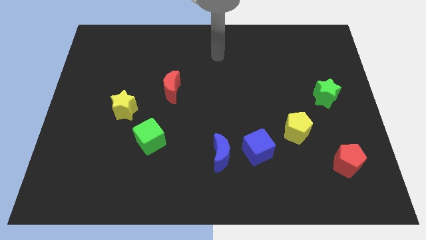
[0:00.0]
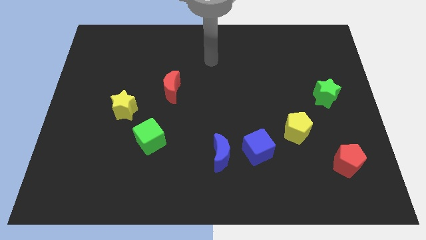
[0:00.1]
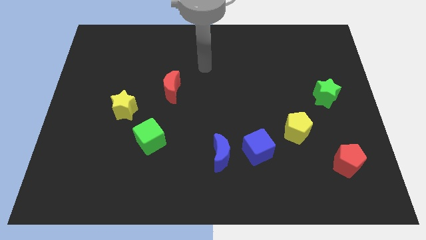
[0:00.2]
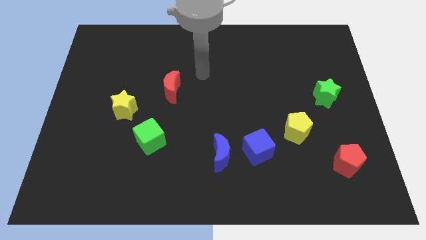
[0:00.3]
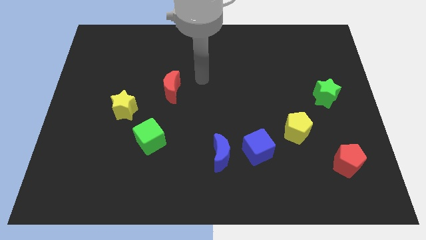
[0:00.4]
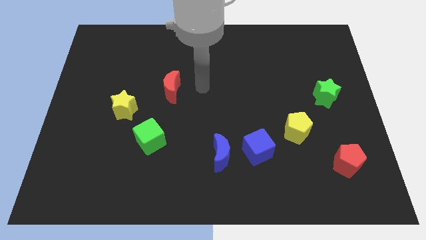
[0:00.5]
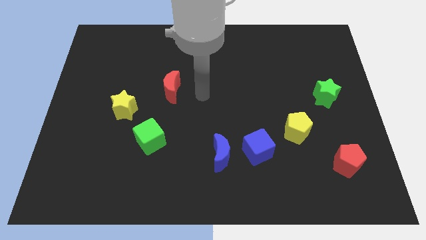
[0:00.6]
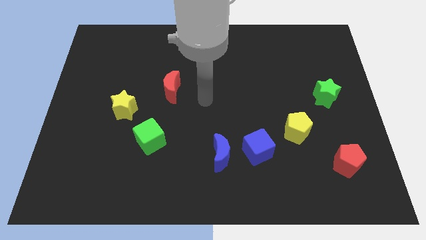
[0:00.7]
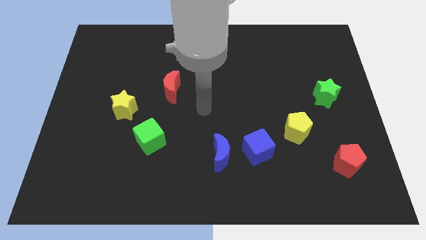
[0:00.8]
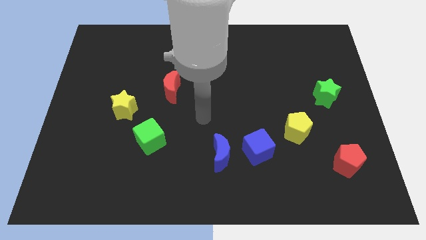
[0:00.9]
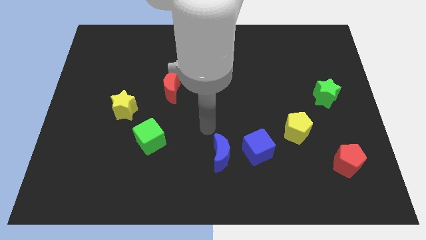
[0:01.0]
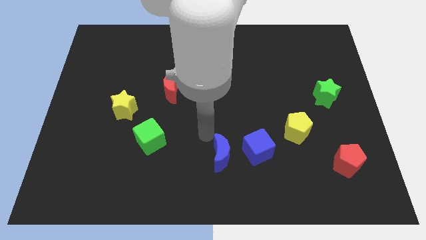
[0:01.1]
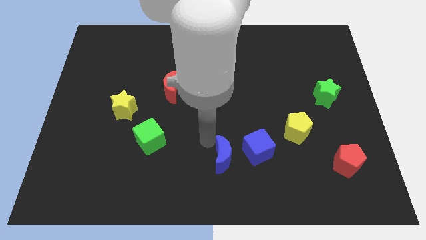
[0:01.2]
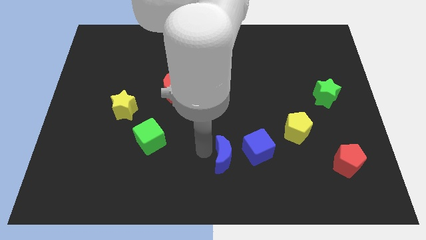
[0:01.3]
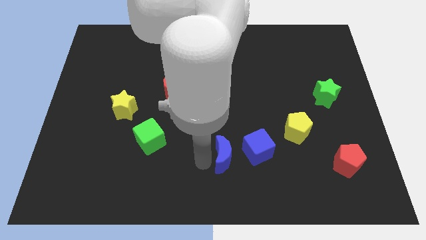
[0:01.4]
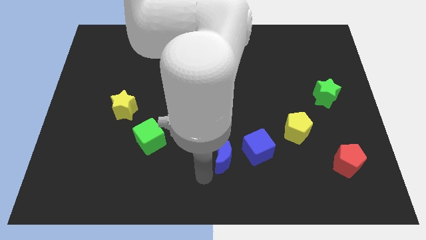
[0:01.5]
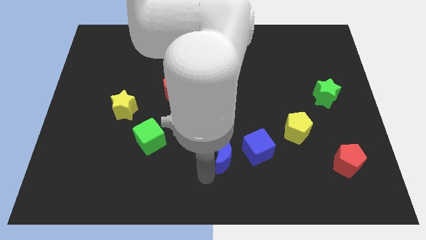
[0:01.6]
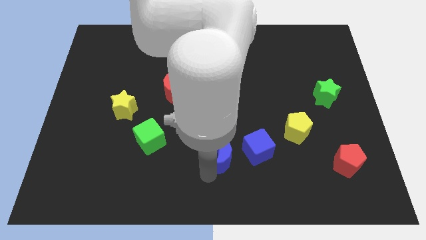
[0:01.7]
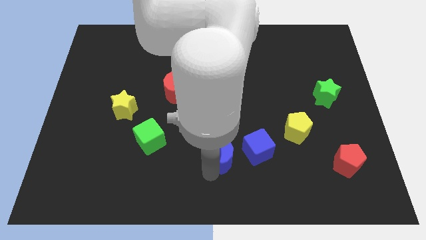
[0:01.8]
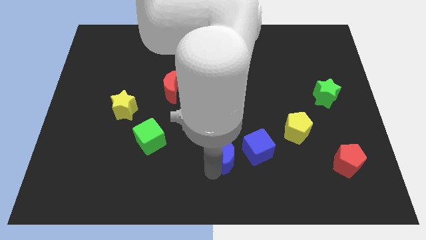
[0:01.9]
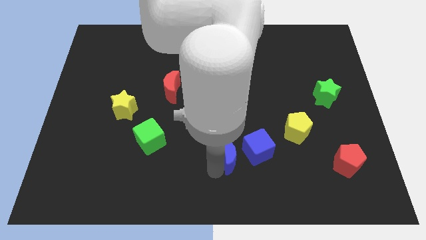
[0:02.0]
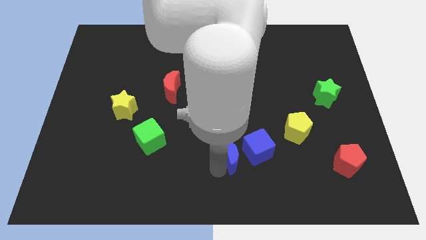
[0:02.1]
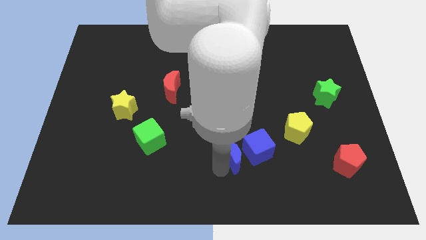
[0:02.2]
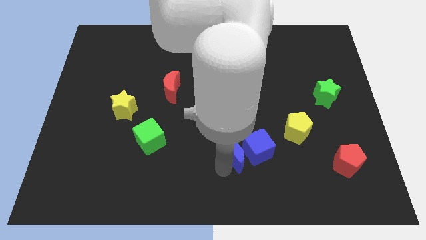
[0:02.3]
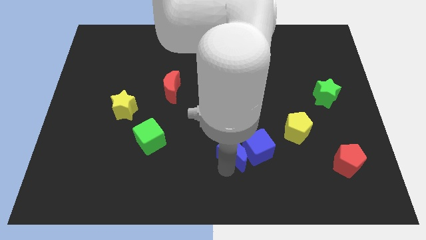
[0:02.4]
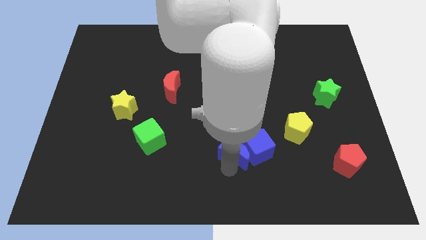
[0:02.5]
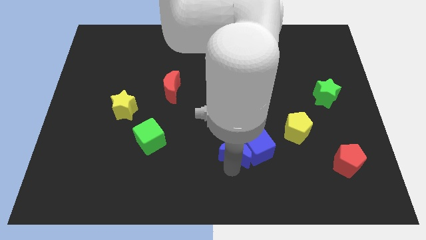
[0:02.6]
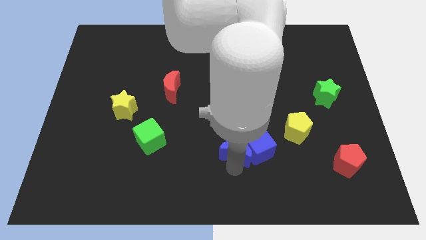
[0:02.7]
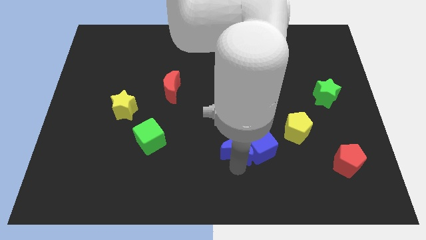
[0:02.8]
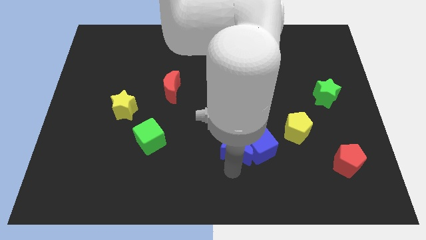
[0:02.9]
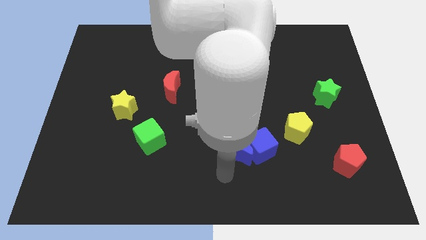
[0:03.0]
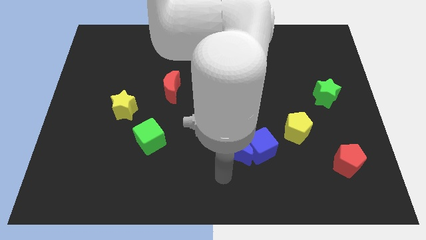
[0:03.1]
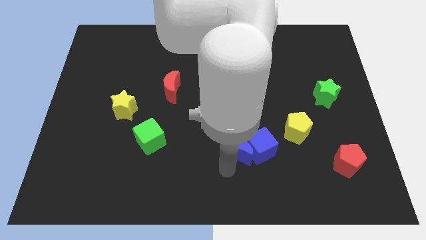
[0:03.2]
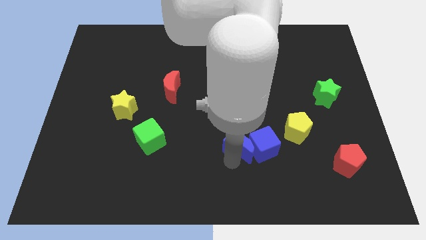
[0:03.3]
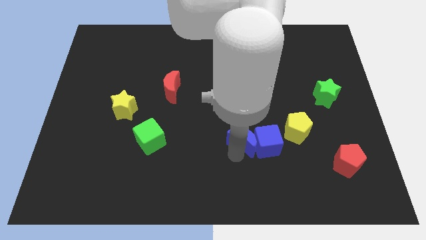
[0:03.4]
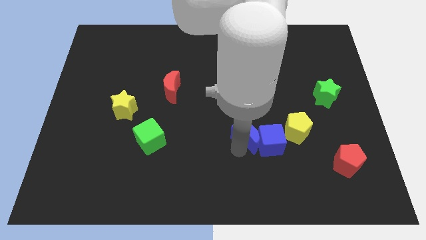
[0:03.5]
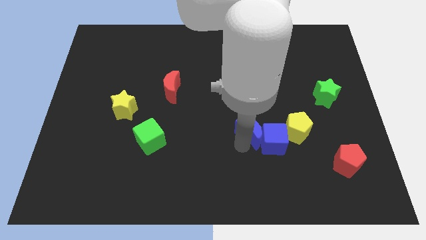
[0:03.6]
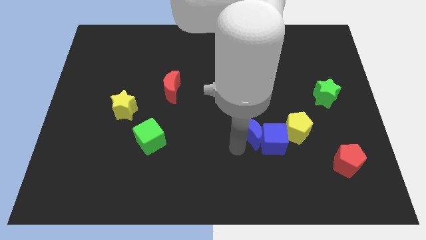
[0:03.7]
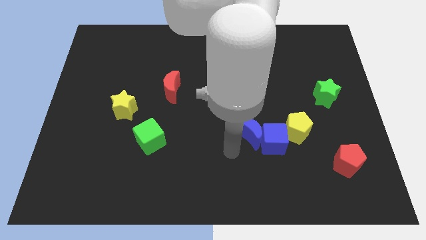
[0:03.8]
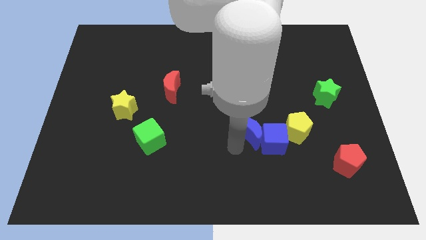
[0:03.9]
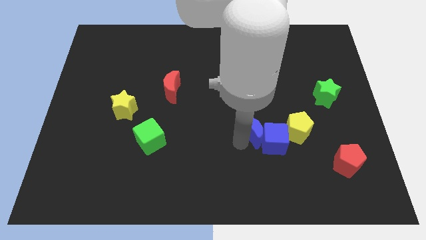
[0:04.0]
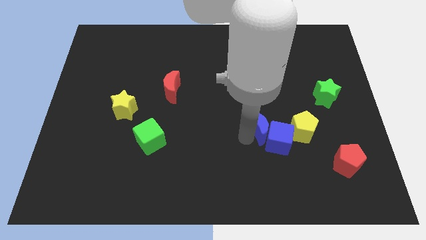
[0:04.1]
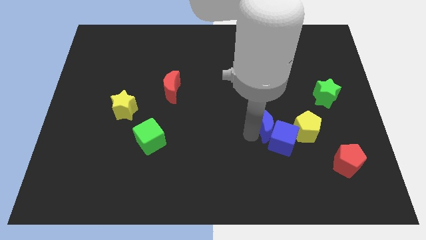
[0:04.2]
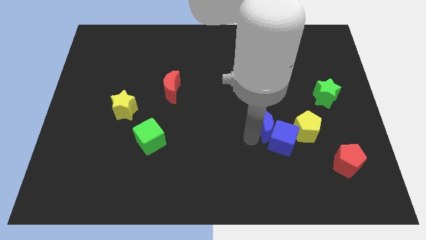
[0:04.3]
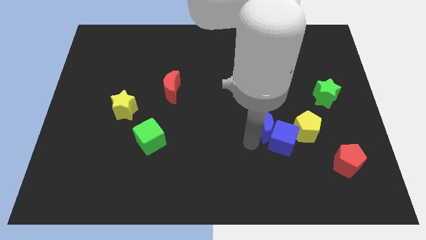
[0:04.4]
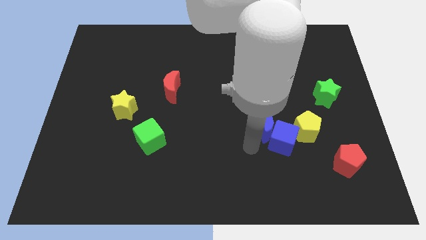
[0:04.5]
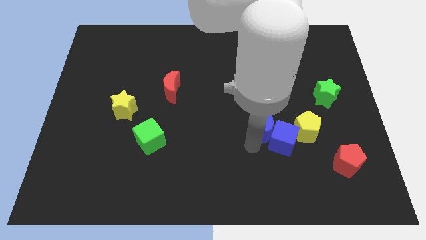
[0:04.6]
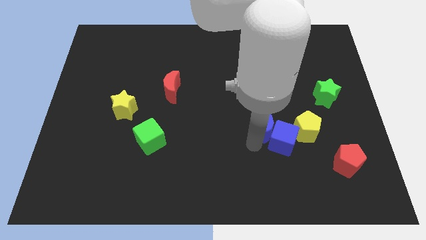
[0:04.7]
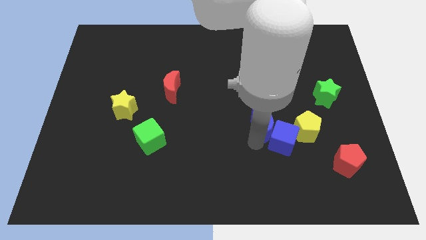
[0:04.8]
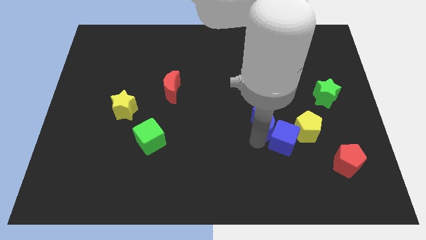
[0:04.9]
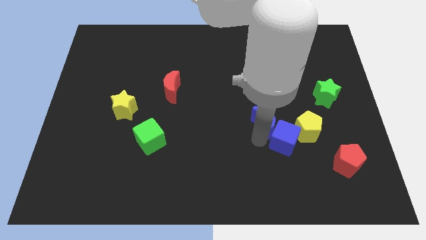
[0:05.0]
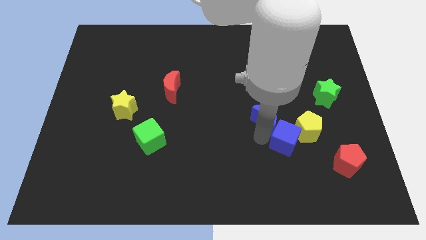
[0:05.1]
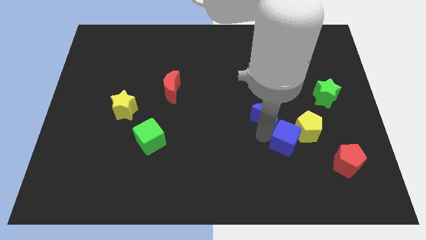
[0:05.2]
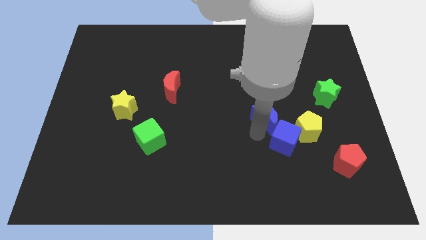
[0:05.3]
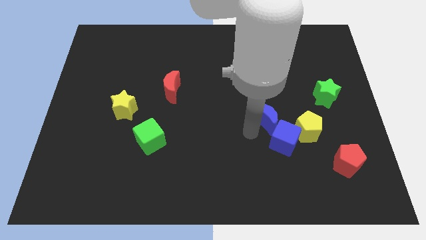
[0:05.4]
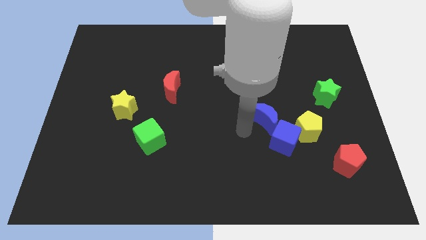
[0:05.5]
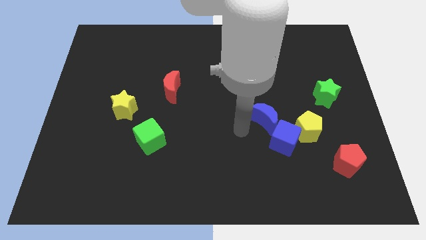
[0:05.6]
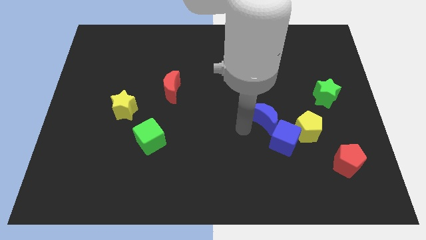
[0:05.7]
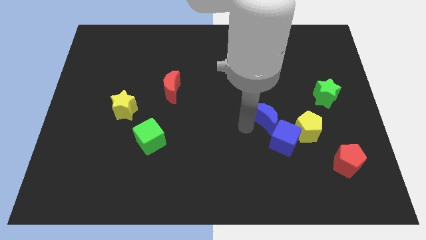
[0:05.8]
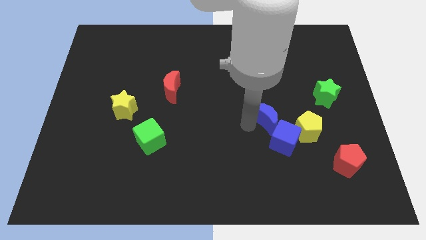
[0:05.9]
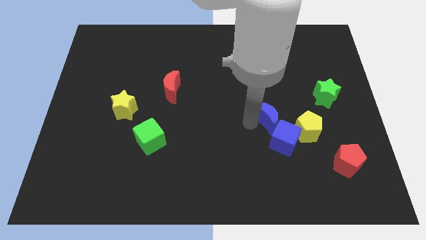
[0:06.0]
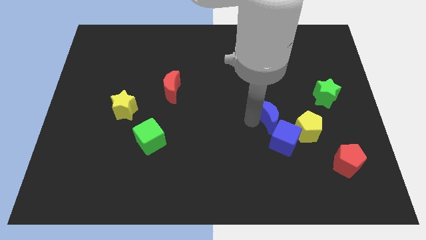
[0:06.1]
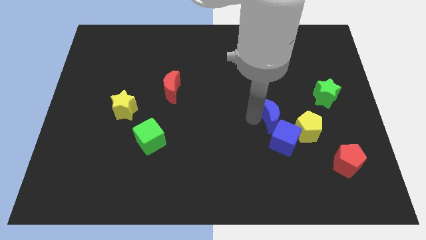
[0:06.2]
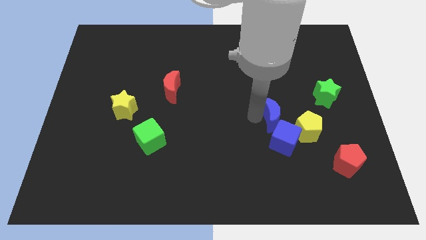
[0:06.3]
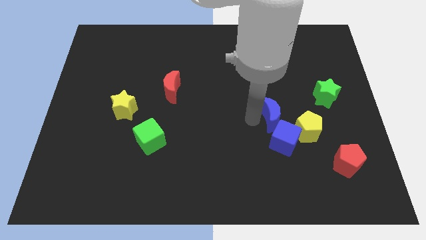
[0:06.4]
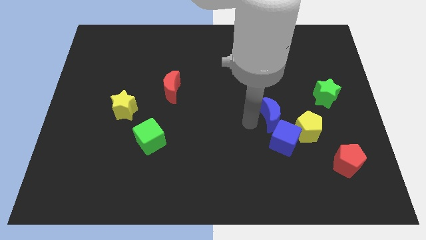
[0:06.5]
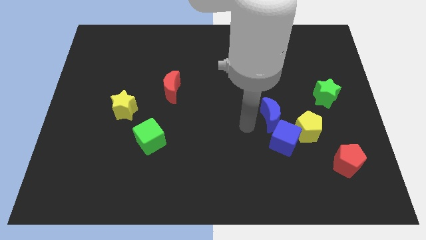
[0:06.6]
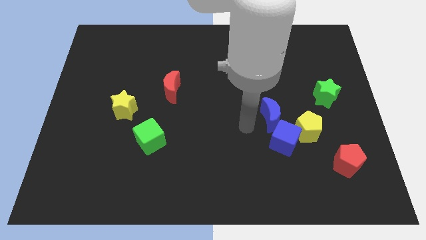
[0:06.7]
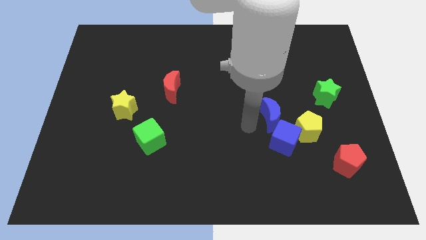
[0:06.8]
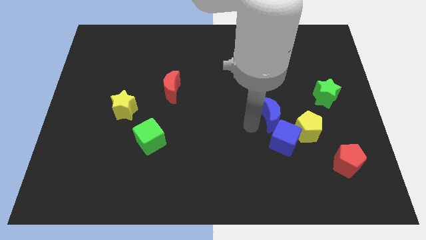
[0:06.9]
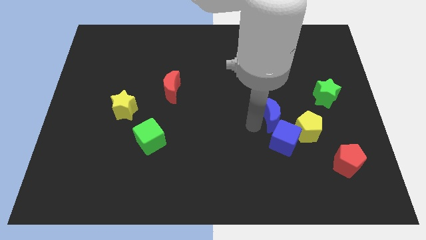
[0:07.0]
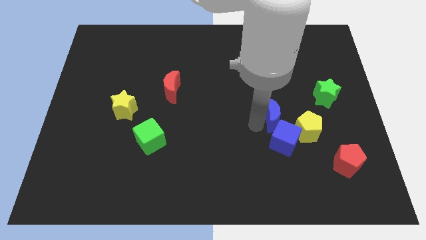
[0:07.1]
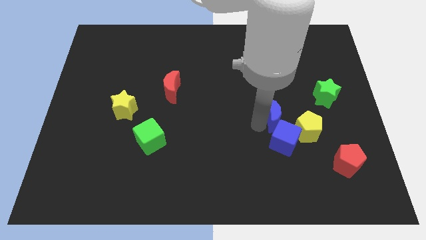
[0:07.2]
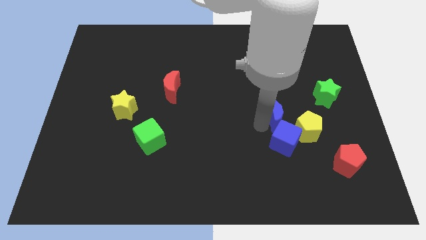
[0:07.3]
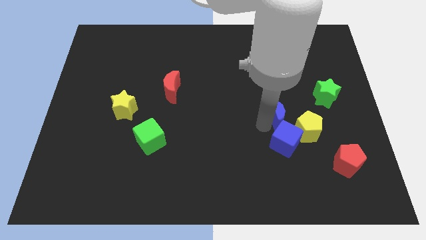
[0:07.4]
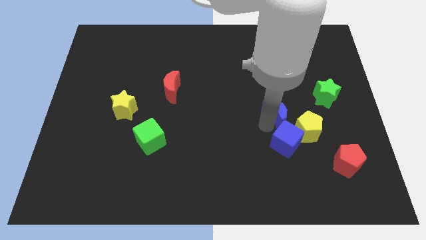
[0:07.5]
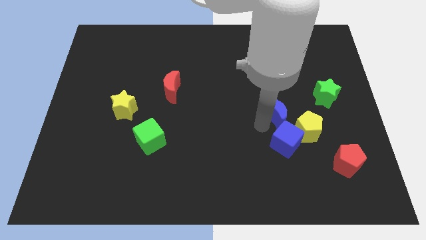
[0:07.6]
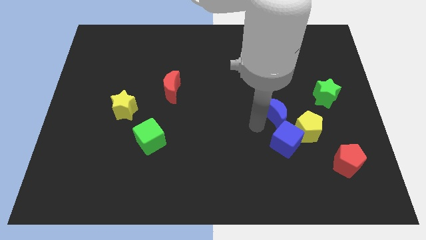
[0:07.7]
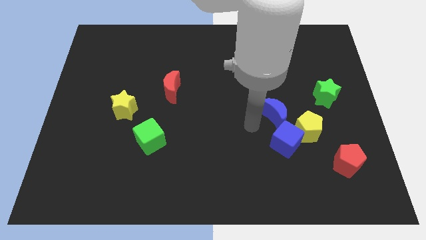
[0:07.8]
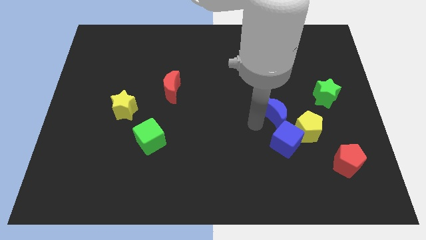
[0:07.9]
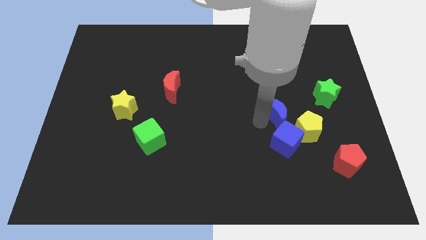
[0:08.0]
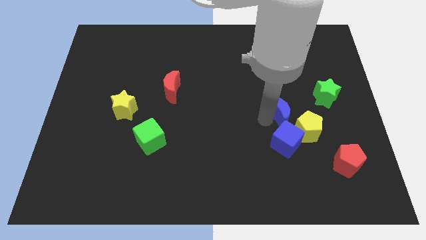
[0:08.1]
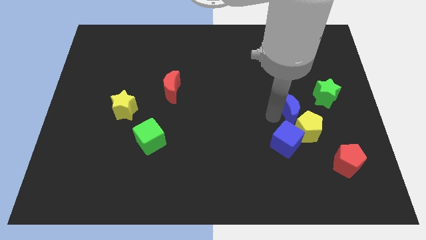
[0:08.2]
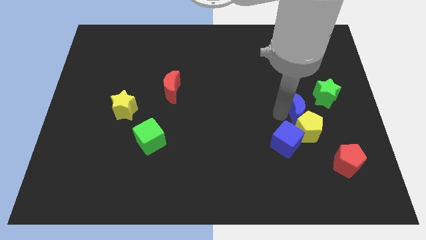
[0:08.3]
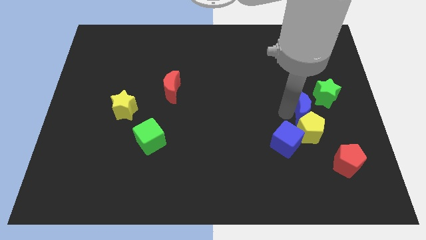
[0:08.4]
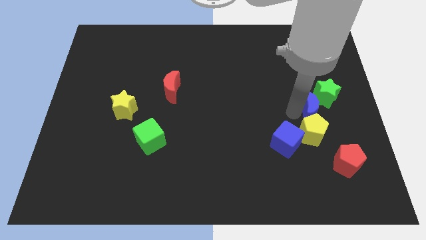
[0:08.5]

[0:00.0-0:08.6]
push the blue moon next to the green star
